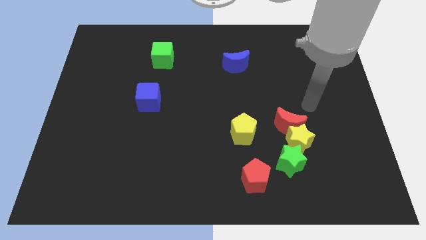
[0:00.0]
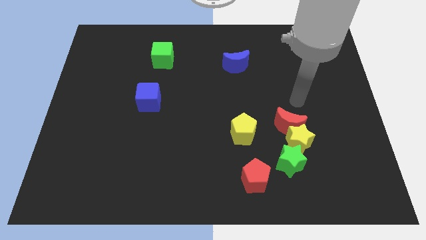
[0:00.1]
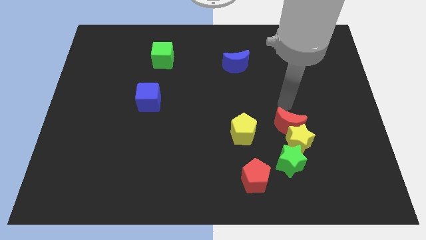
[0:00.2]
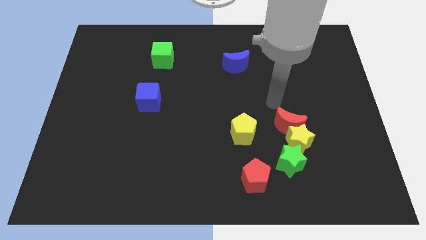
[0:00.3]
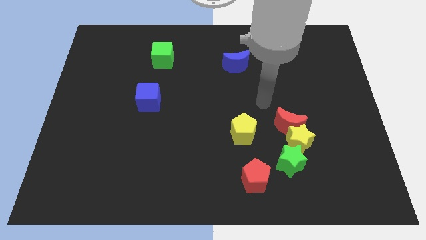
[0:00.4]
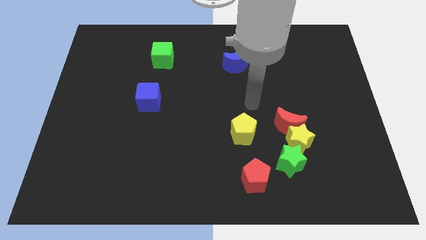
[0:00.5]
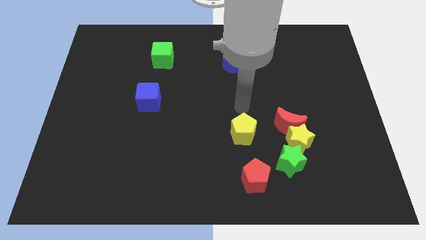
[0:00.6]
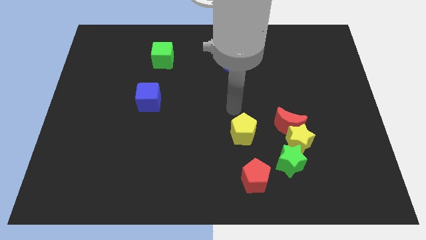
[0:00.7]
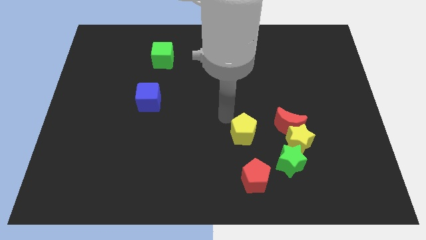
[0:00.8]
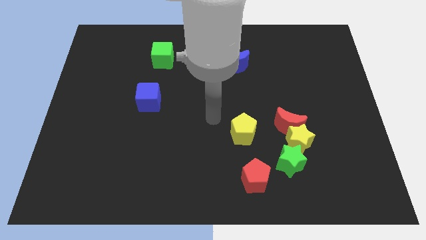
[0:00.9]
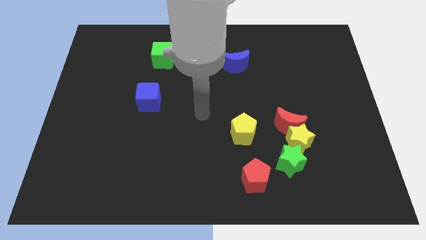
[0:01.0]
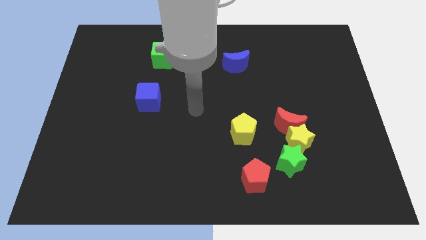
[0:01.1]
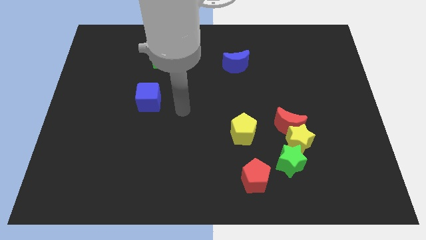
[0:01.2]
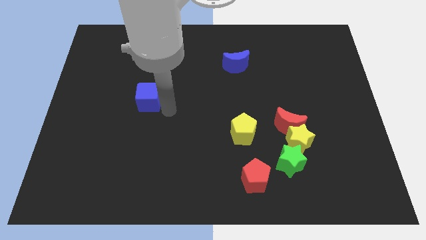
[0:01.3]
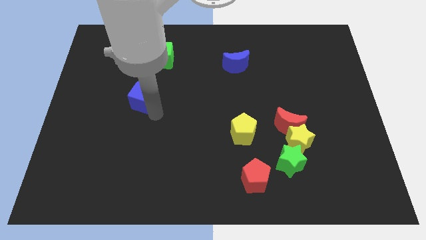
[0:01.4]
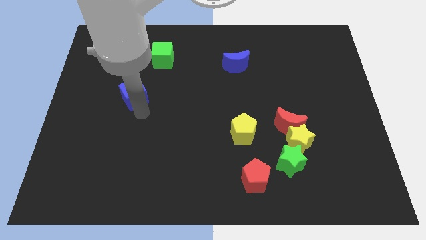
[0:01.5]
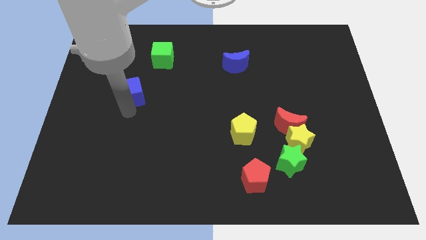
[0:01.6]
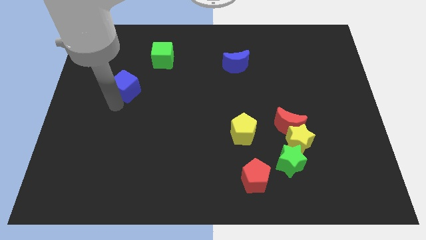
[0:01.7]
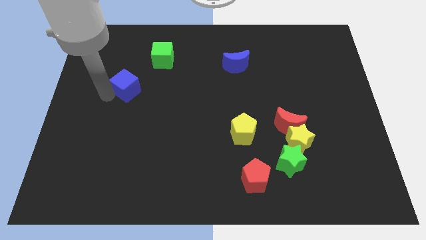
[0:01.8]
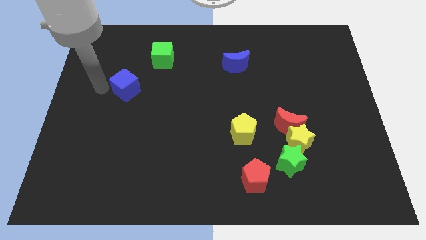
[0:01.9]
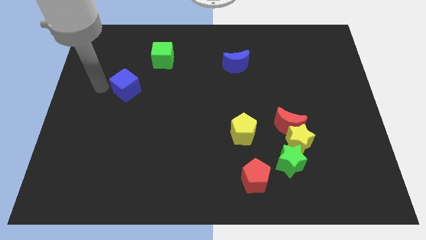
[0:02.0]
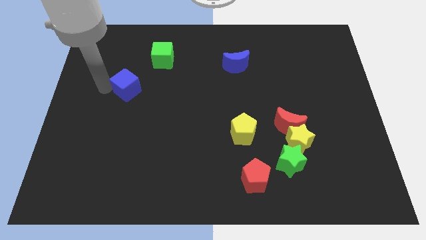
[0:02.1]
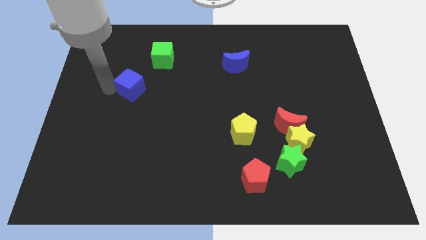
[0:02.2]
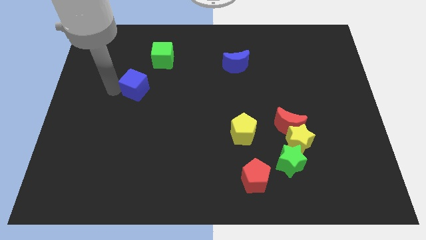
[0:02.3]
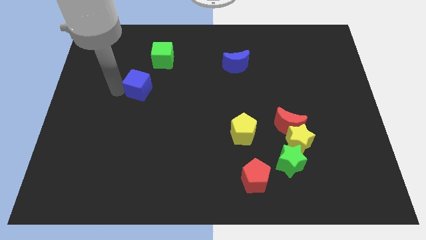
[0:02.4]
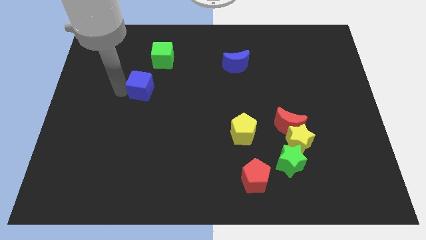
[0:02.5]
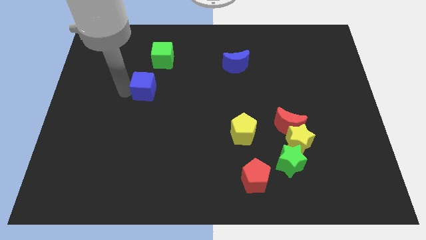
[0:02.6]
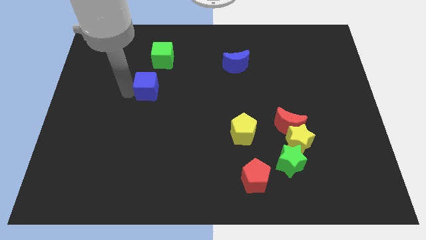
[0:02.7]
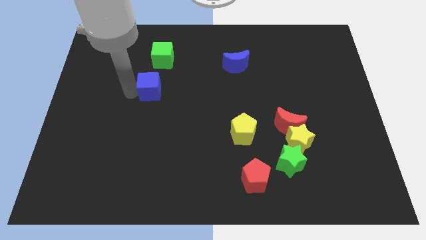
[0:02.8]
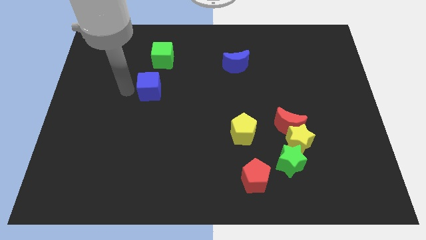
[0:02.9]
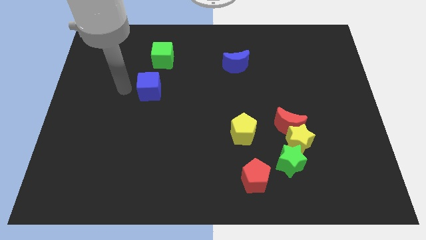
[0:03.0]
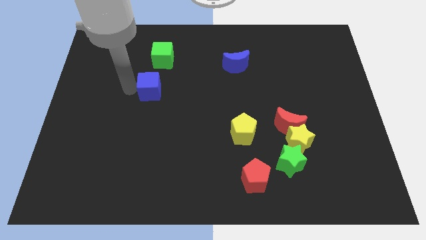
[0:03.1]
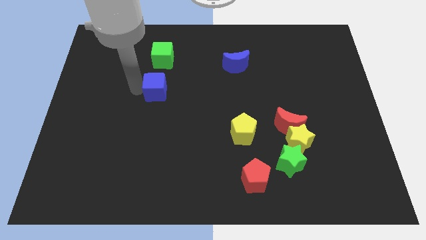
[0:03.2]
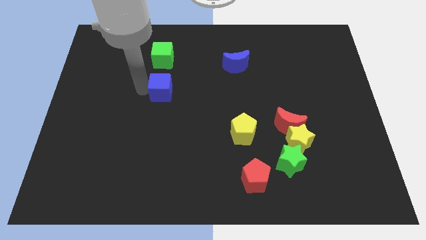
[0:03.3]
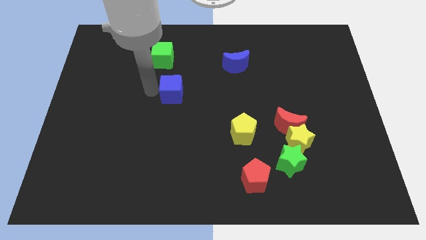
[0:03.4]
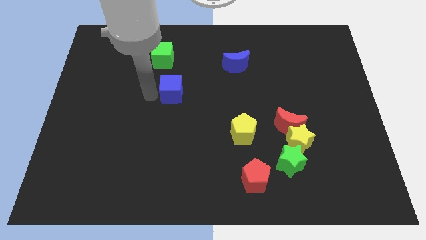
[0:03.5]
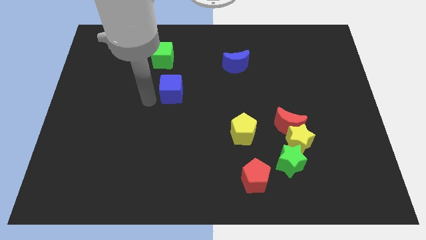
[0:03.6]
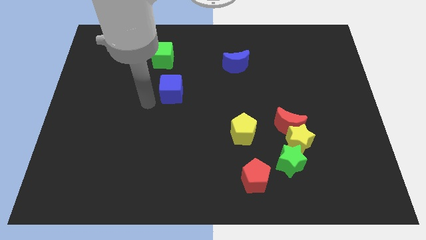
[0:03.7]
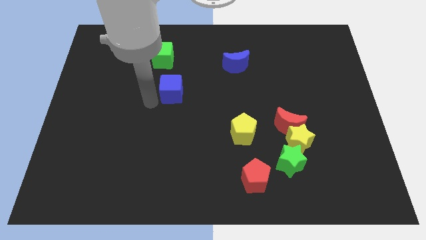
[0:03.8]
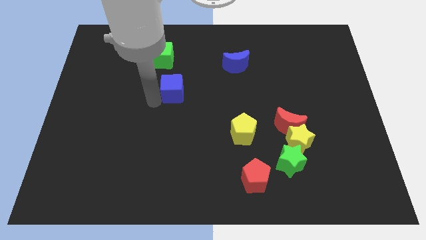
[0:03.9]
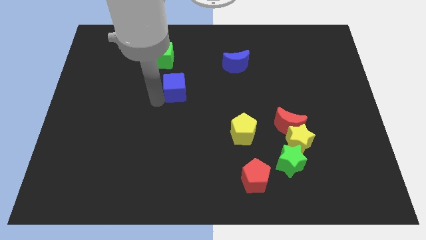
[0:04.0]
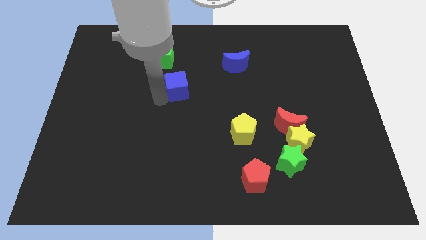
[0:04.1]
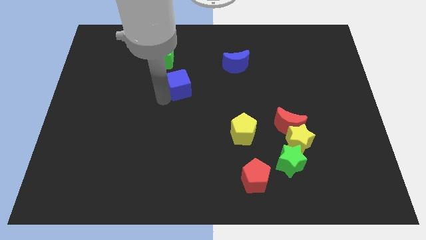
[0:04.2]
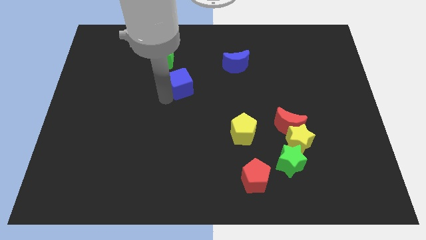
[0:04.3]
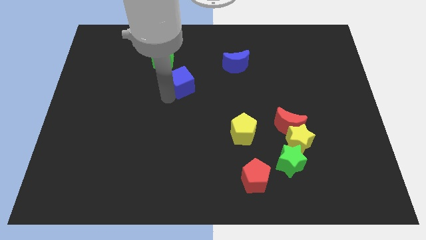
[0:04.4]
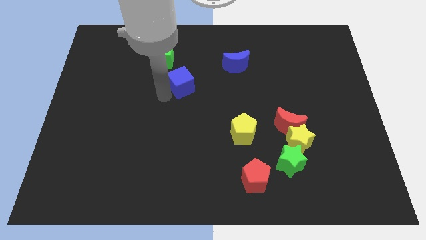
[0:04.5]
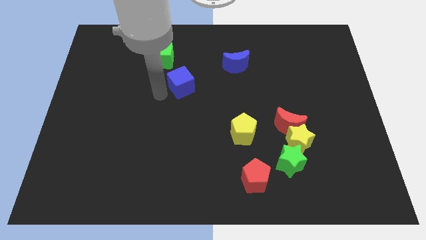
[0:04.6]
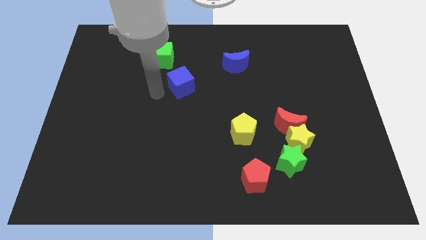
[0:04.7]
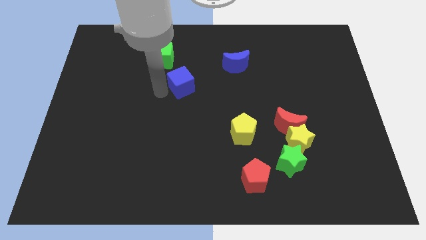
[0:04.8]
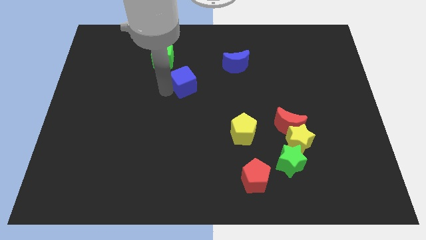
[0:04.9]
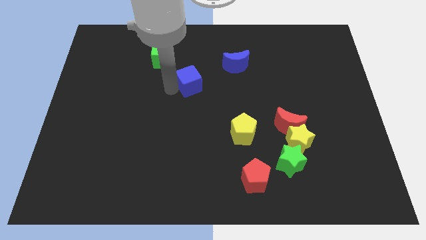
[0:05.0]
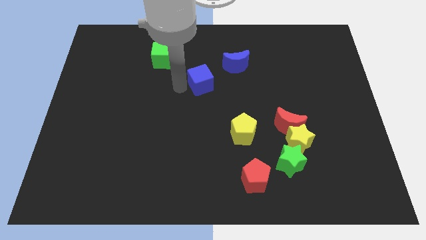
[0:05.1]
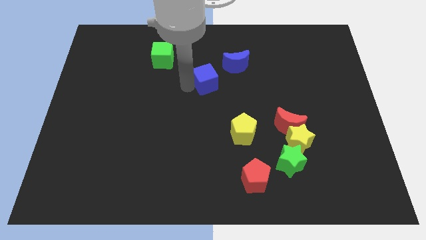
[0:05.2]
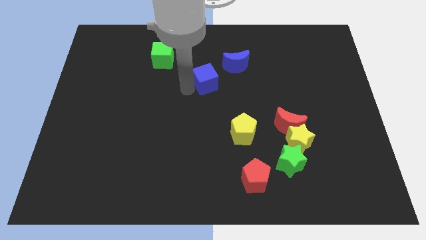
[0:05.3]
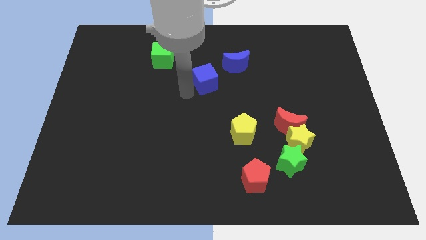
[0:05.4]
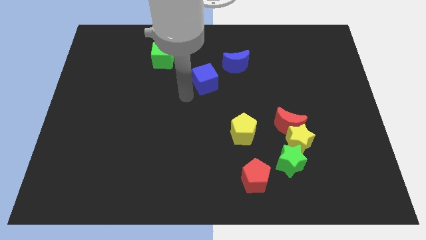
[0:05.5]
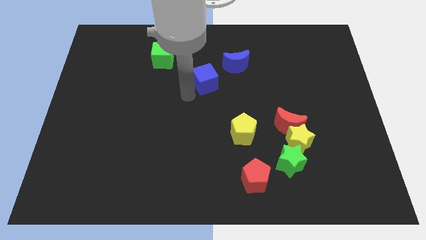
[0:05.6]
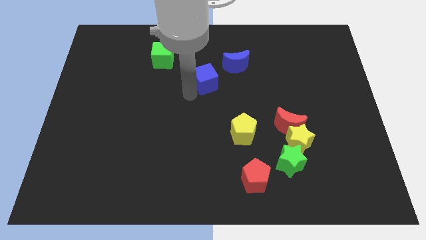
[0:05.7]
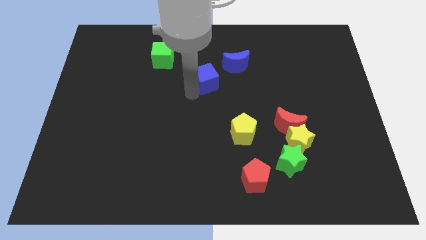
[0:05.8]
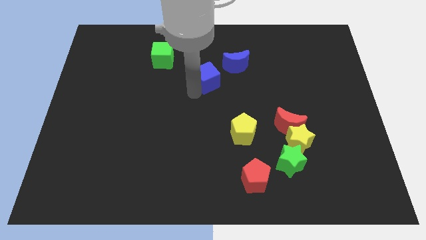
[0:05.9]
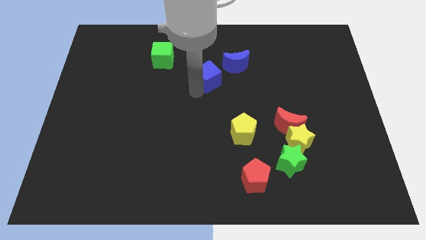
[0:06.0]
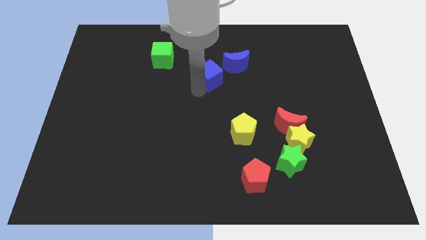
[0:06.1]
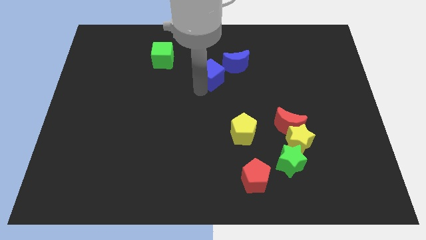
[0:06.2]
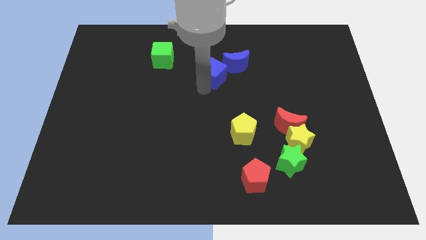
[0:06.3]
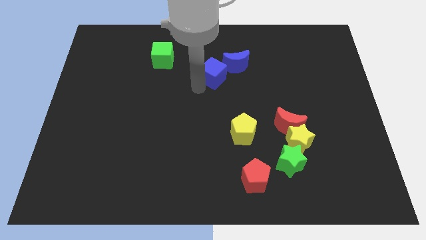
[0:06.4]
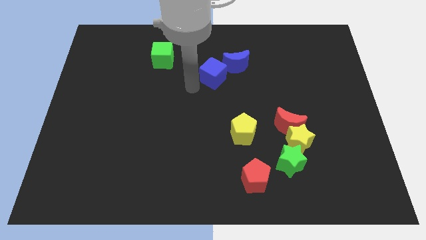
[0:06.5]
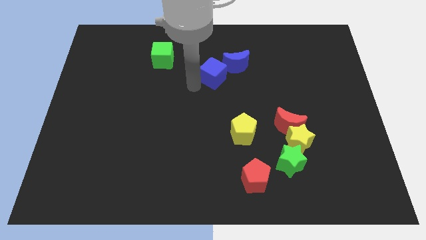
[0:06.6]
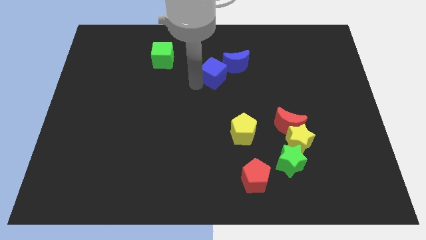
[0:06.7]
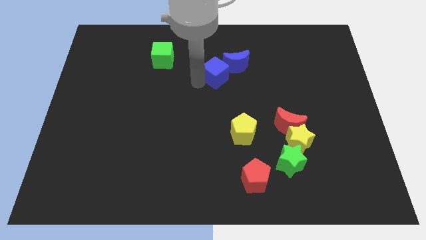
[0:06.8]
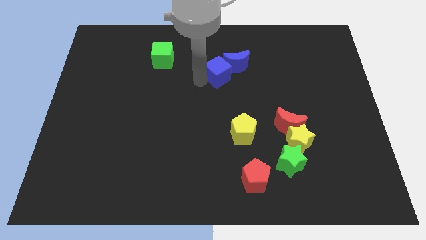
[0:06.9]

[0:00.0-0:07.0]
put the blue cube towards the blue moon

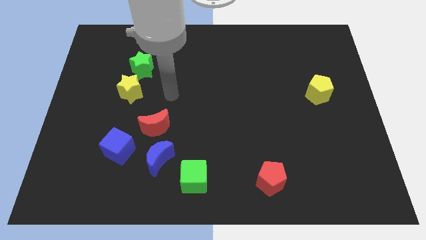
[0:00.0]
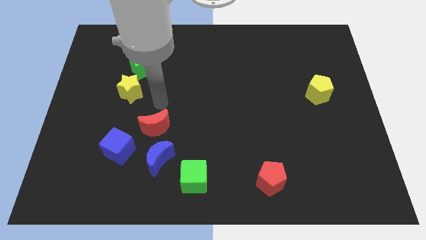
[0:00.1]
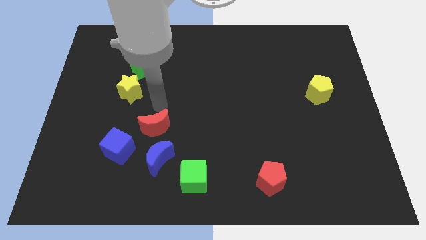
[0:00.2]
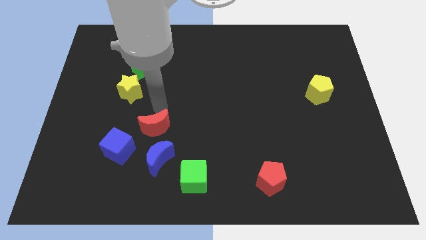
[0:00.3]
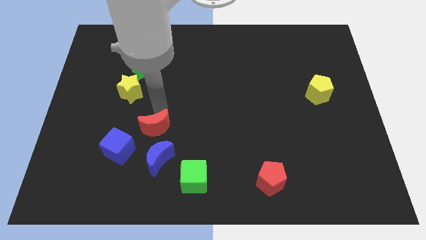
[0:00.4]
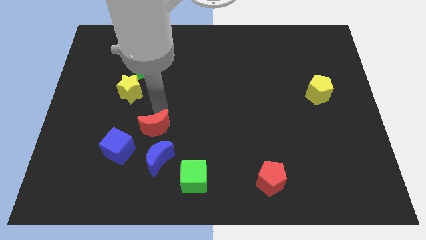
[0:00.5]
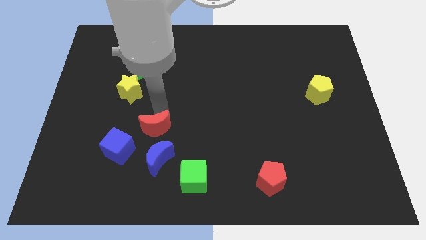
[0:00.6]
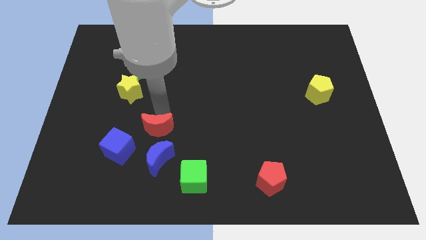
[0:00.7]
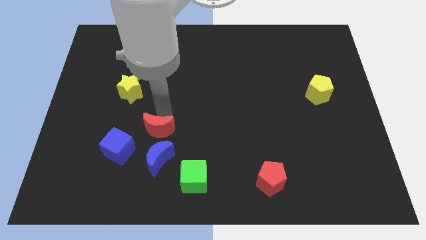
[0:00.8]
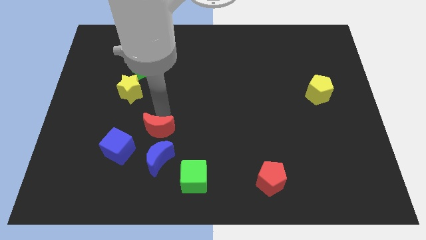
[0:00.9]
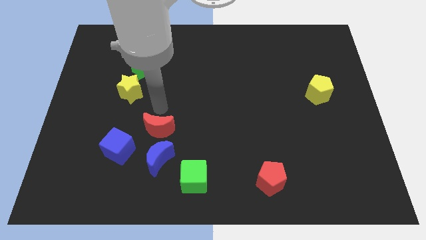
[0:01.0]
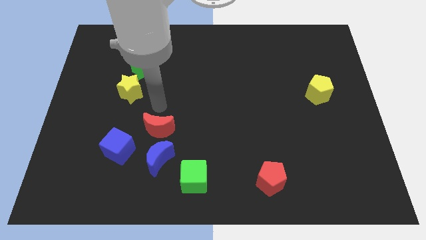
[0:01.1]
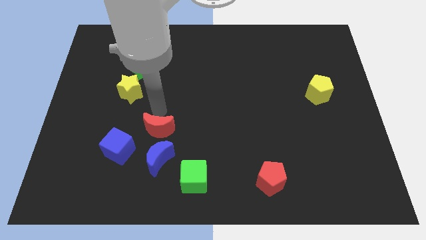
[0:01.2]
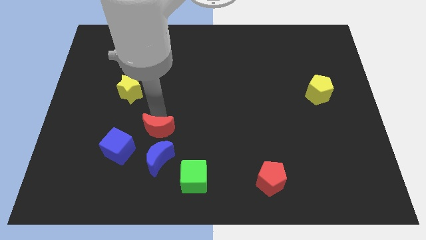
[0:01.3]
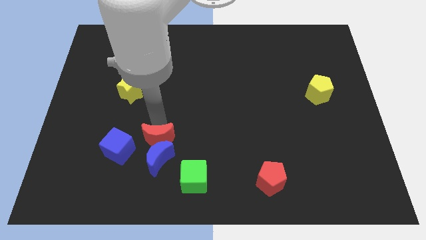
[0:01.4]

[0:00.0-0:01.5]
push the red moon close to the blue moon
